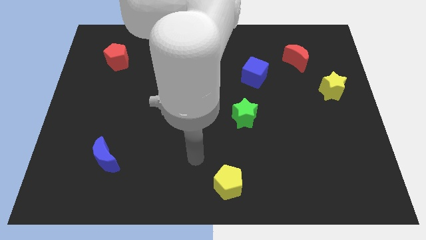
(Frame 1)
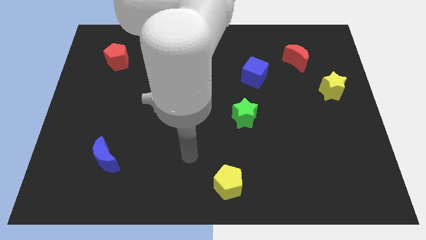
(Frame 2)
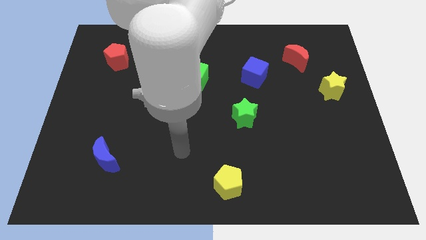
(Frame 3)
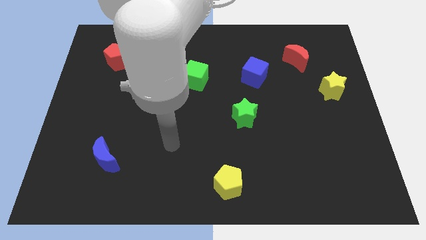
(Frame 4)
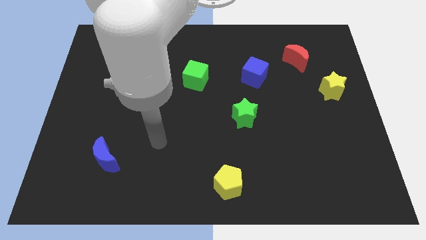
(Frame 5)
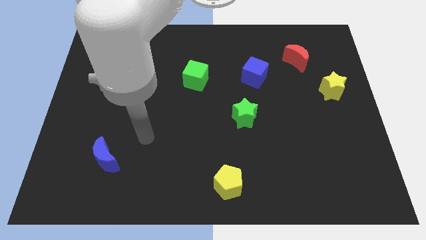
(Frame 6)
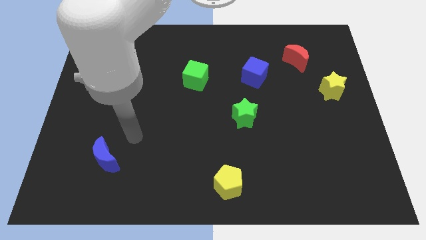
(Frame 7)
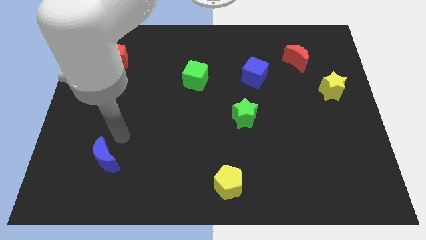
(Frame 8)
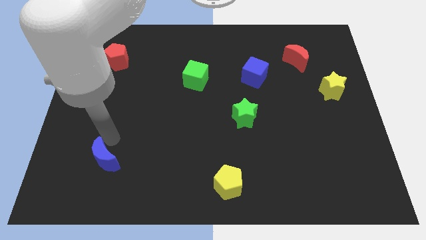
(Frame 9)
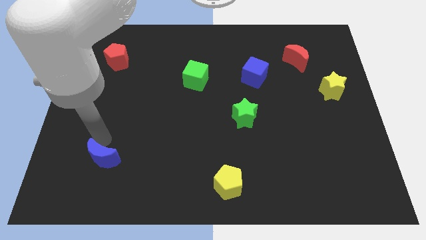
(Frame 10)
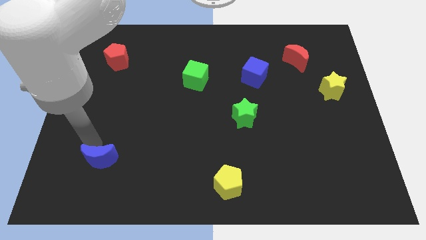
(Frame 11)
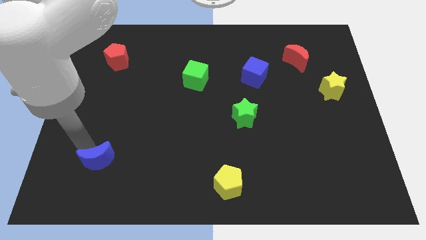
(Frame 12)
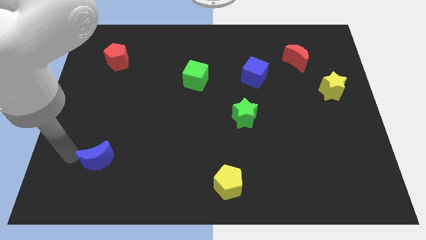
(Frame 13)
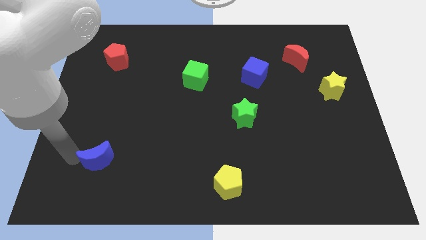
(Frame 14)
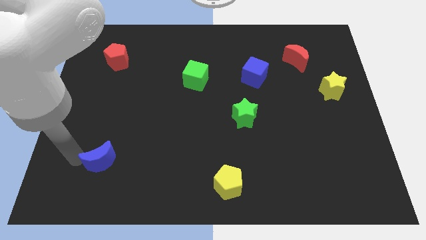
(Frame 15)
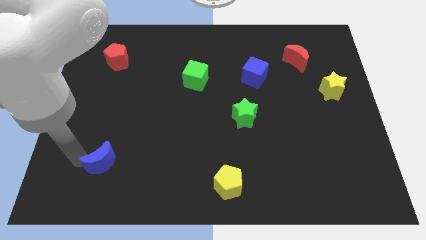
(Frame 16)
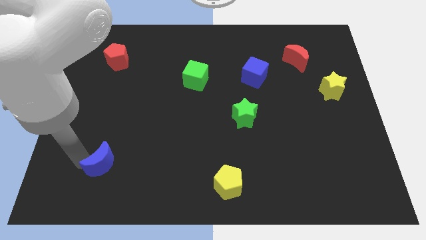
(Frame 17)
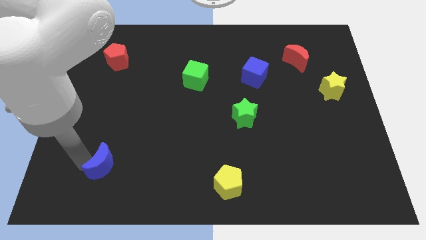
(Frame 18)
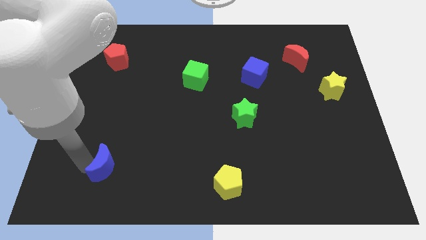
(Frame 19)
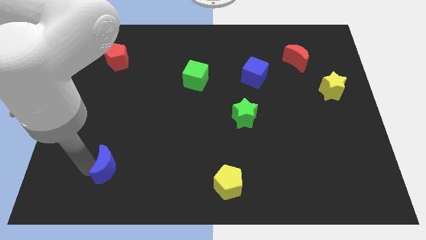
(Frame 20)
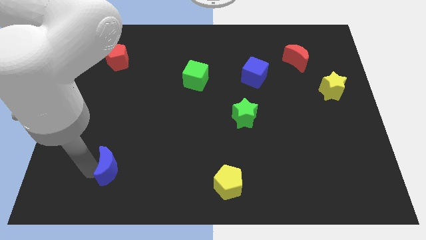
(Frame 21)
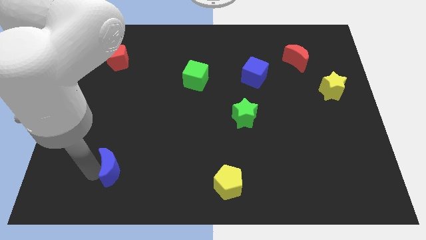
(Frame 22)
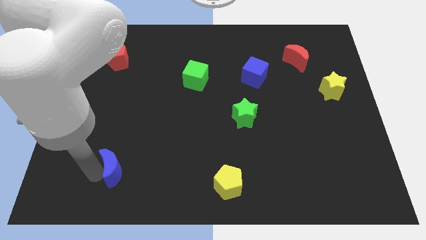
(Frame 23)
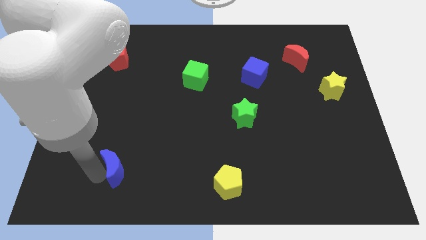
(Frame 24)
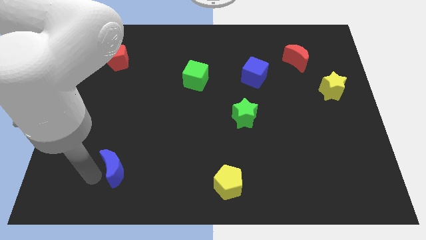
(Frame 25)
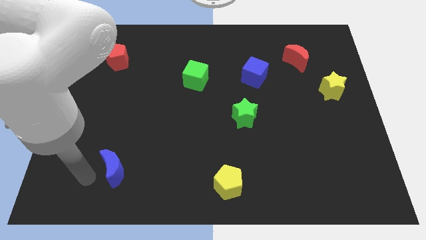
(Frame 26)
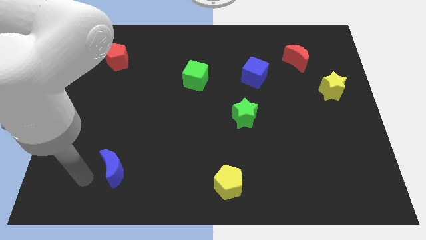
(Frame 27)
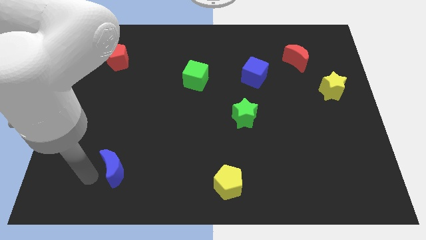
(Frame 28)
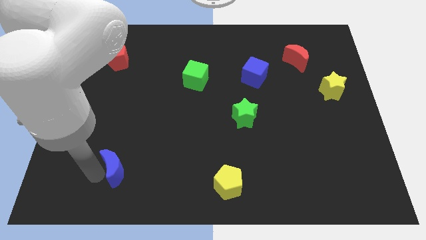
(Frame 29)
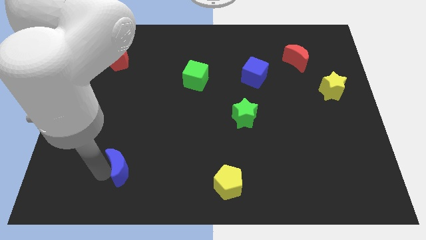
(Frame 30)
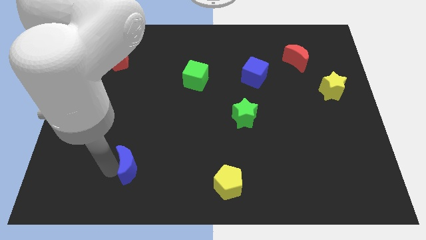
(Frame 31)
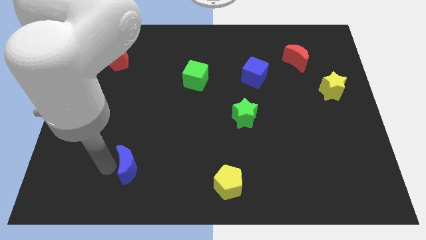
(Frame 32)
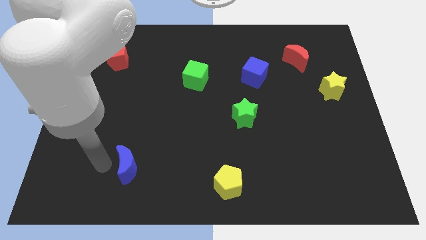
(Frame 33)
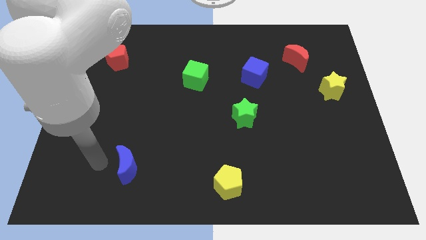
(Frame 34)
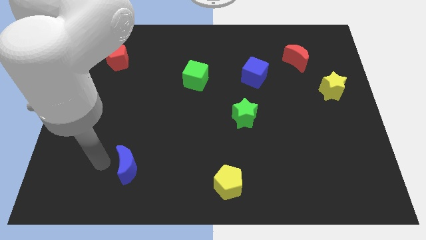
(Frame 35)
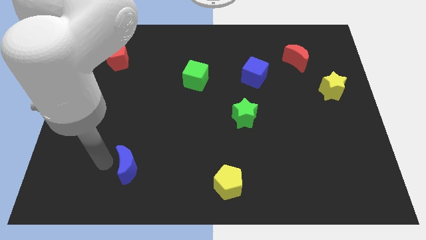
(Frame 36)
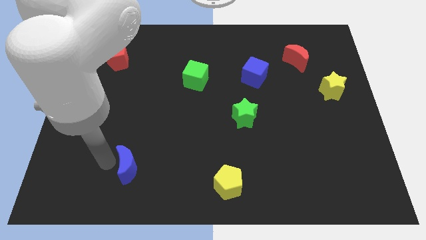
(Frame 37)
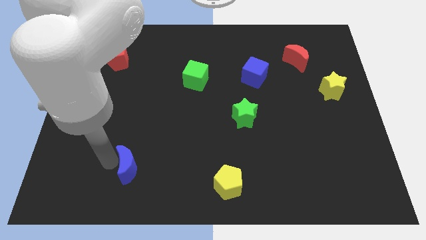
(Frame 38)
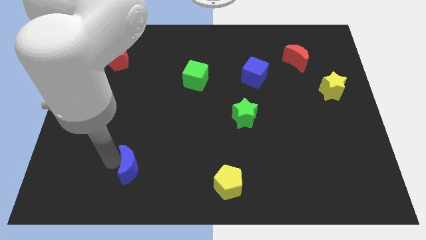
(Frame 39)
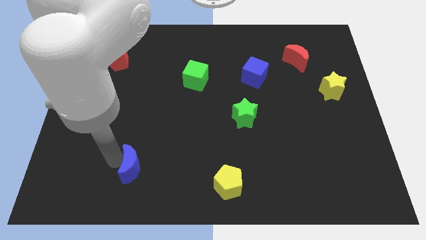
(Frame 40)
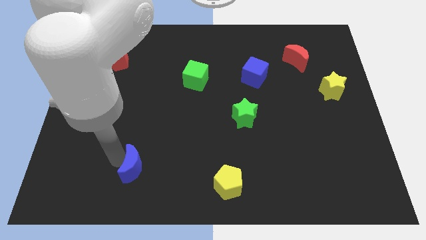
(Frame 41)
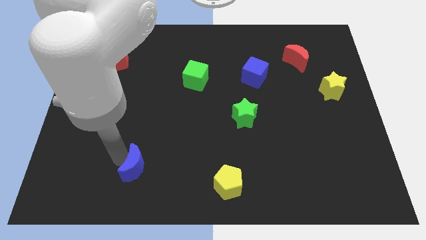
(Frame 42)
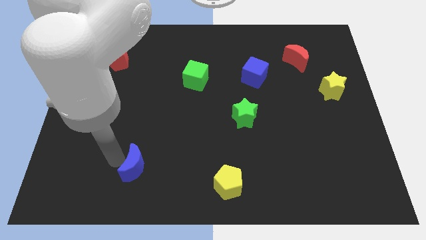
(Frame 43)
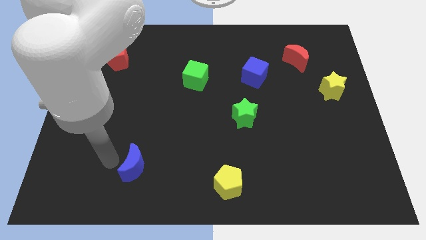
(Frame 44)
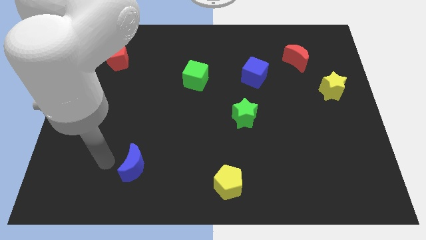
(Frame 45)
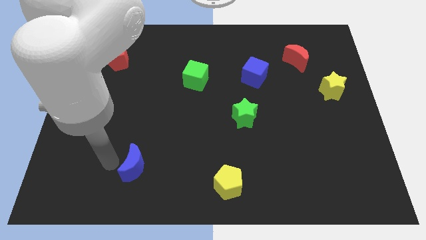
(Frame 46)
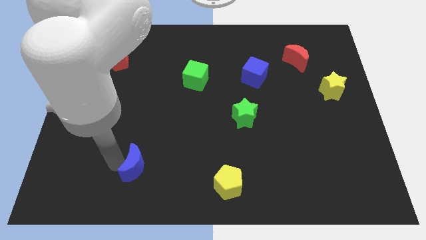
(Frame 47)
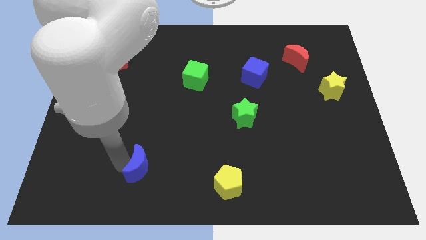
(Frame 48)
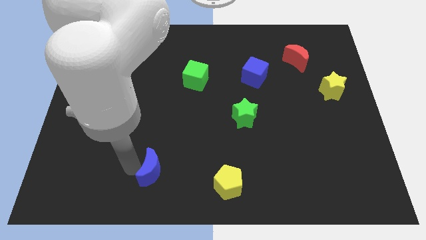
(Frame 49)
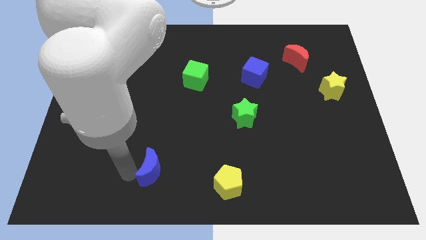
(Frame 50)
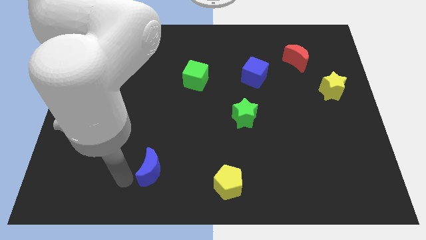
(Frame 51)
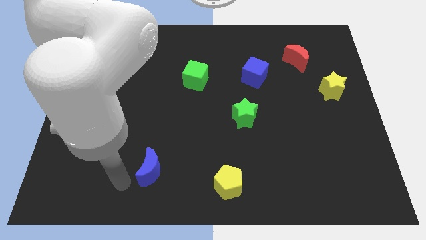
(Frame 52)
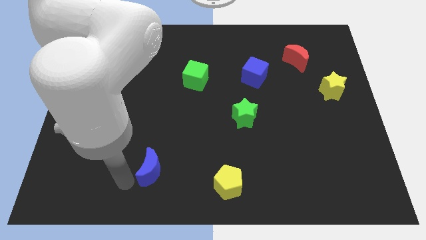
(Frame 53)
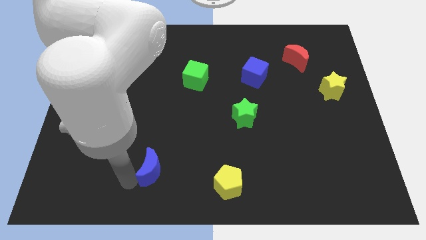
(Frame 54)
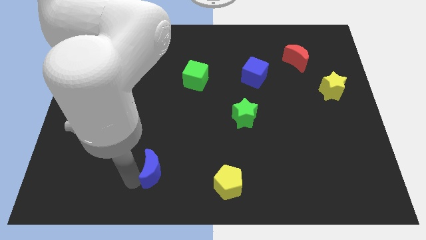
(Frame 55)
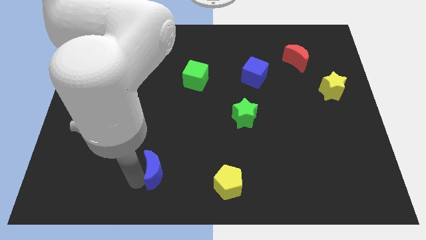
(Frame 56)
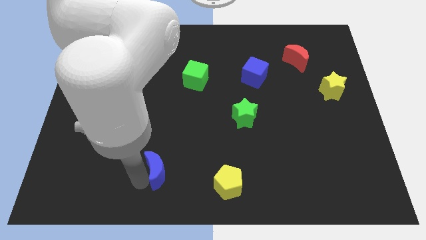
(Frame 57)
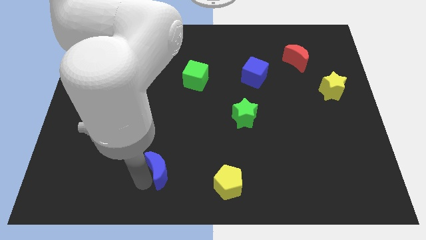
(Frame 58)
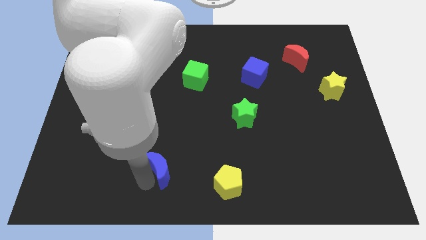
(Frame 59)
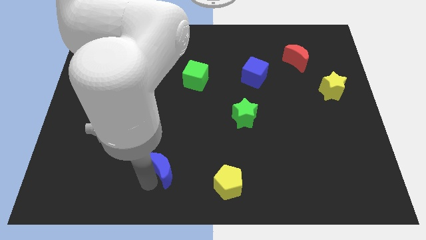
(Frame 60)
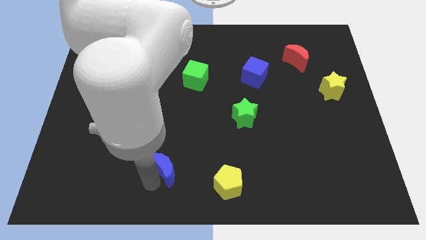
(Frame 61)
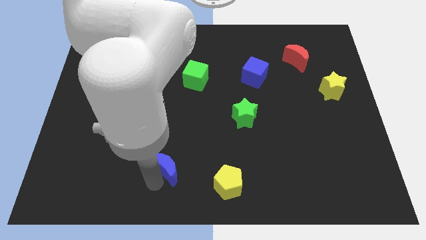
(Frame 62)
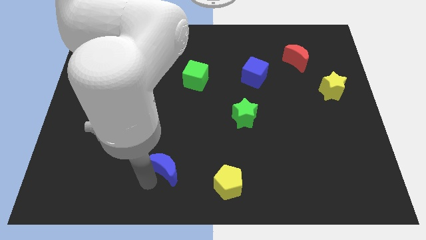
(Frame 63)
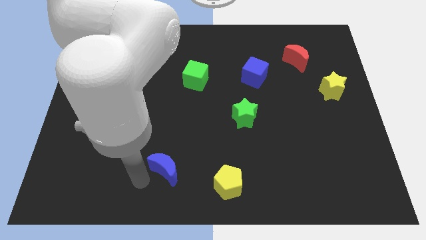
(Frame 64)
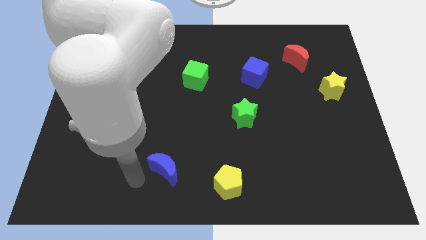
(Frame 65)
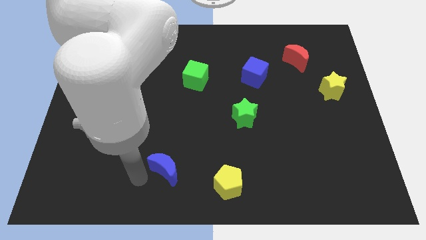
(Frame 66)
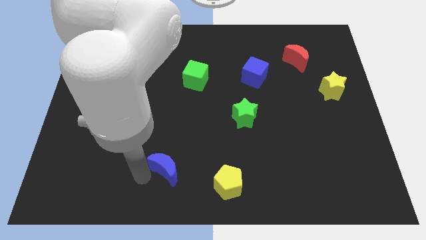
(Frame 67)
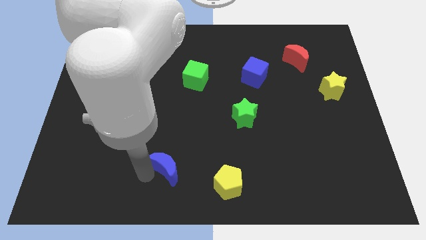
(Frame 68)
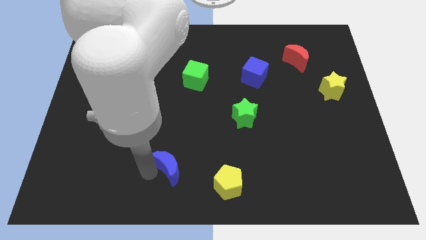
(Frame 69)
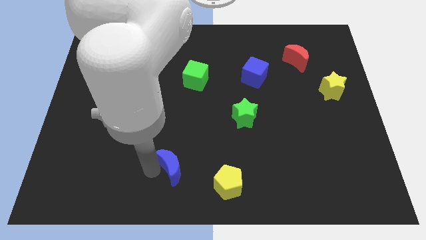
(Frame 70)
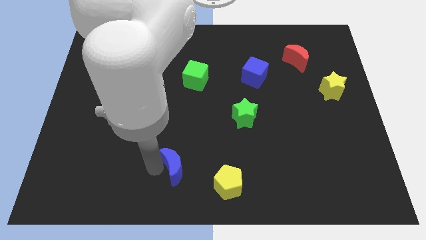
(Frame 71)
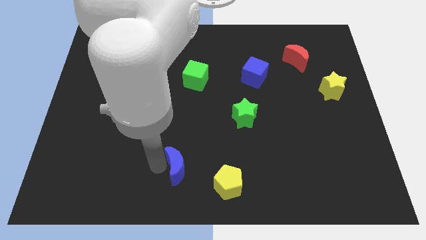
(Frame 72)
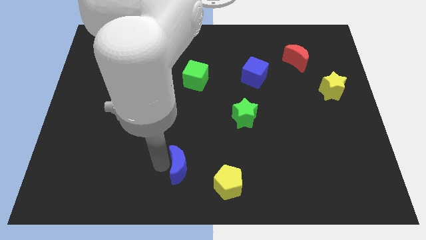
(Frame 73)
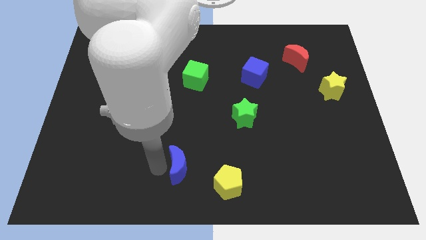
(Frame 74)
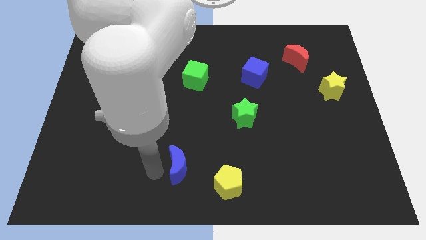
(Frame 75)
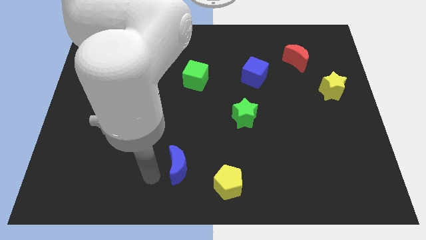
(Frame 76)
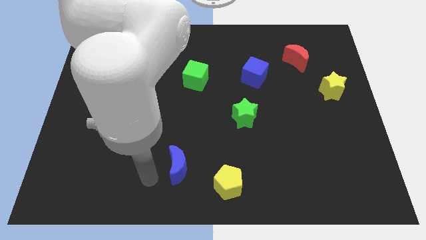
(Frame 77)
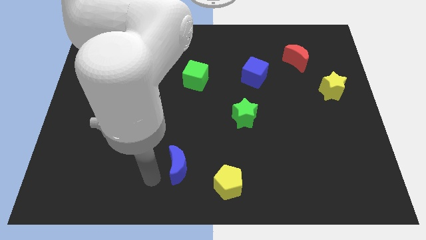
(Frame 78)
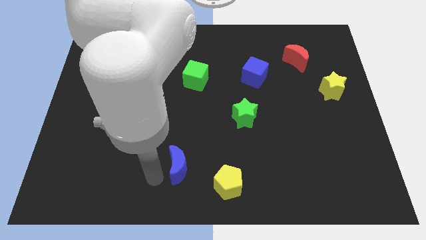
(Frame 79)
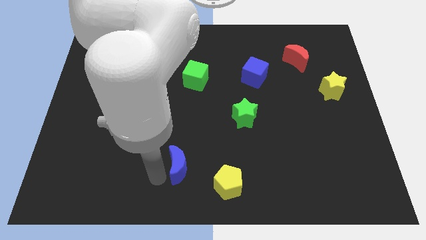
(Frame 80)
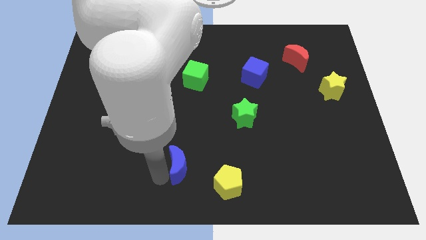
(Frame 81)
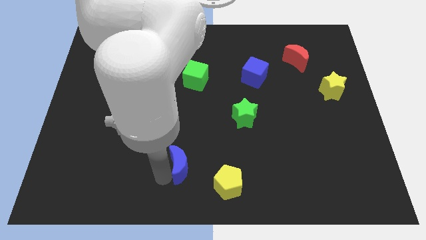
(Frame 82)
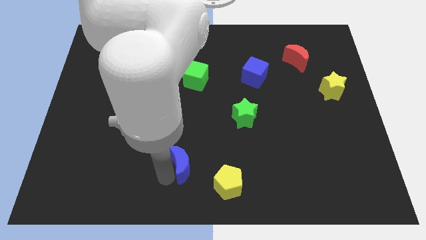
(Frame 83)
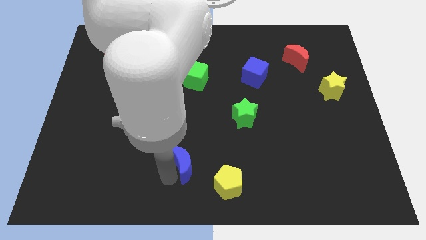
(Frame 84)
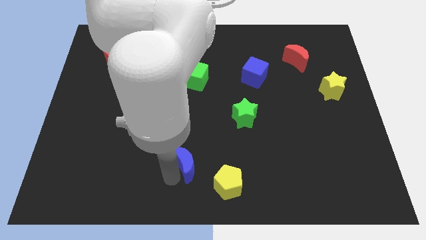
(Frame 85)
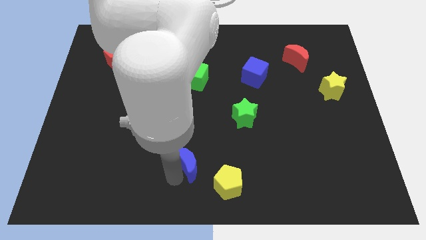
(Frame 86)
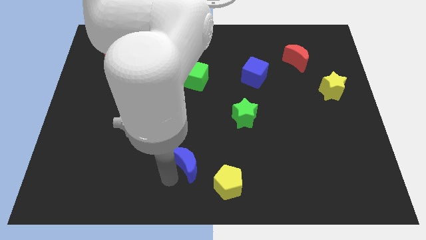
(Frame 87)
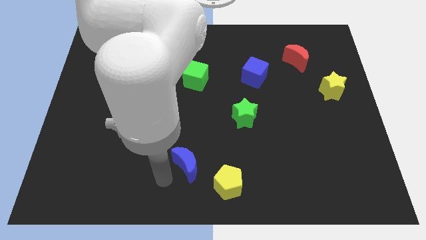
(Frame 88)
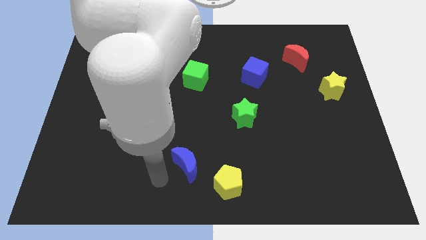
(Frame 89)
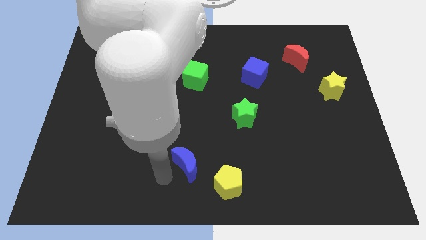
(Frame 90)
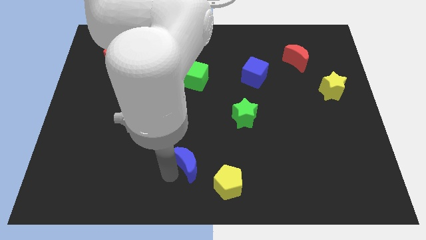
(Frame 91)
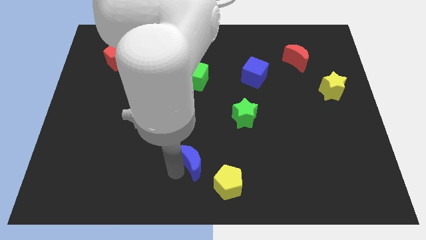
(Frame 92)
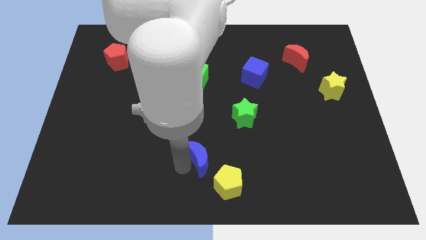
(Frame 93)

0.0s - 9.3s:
slide the blue moon right
